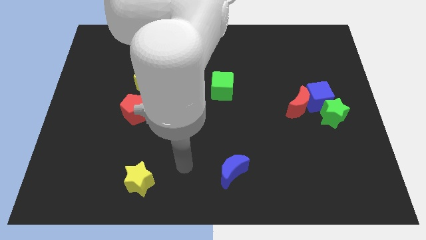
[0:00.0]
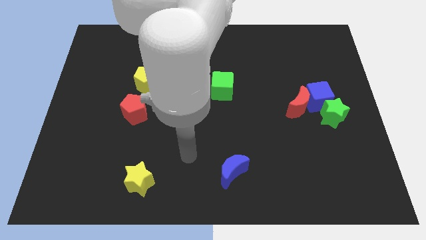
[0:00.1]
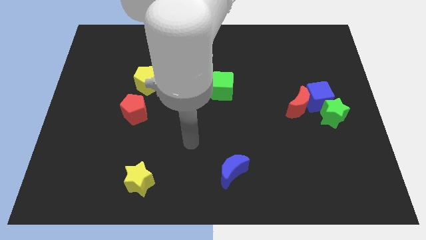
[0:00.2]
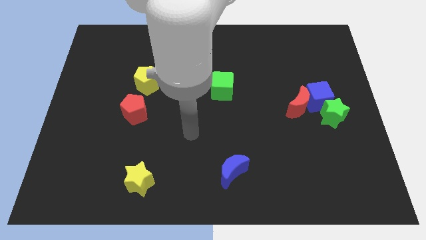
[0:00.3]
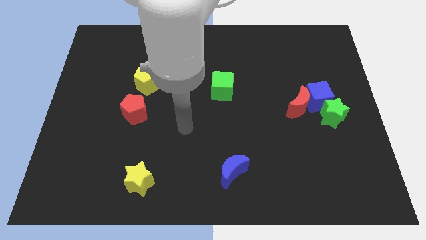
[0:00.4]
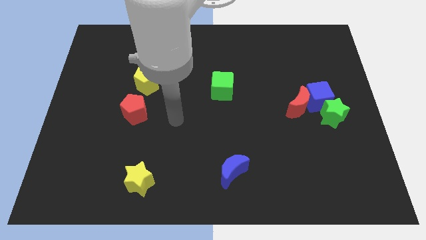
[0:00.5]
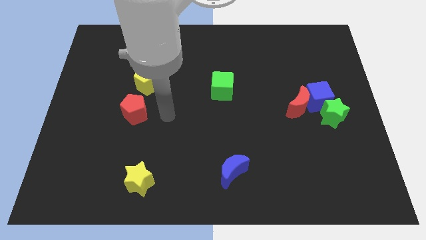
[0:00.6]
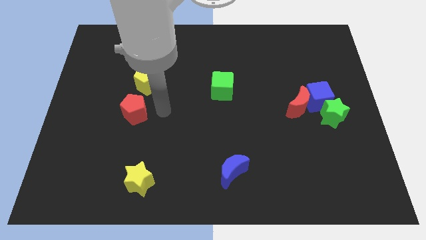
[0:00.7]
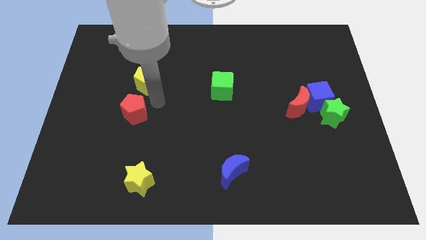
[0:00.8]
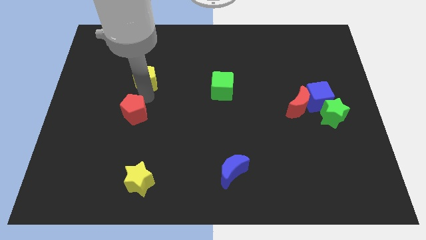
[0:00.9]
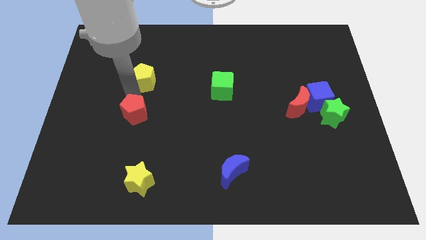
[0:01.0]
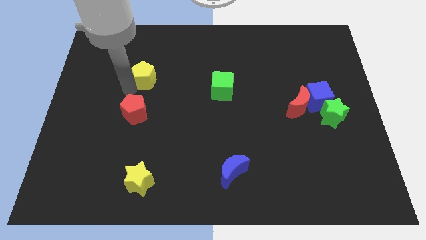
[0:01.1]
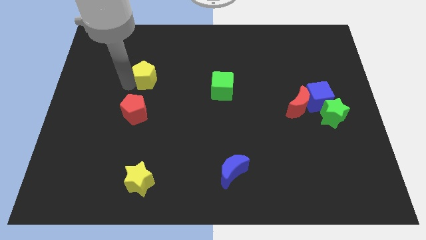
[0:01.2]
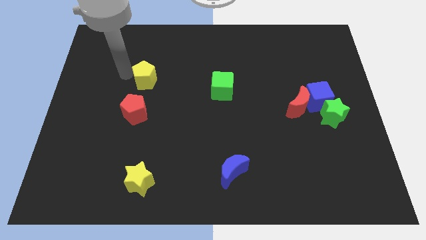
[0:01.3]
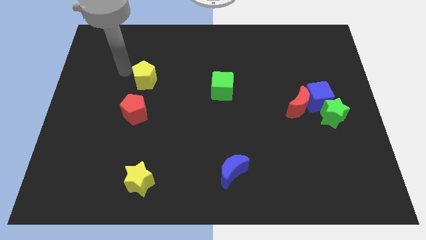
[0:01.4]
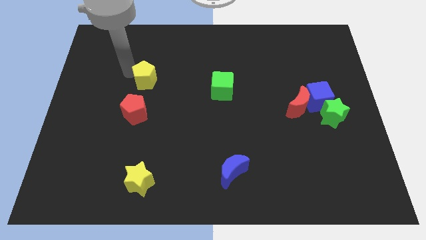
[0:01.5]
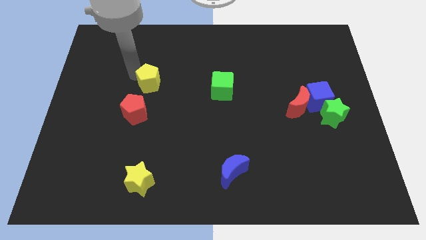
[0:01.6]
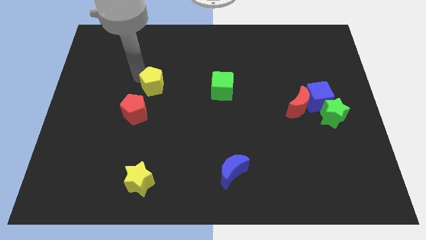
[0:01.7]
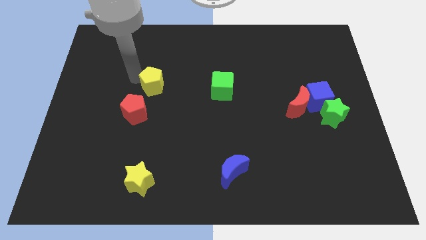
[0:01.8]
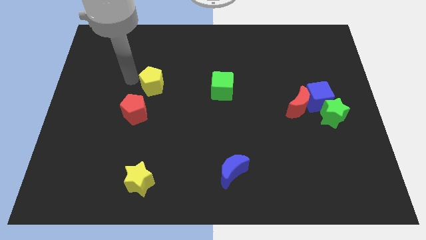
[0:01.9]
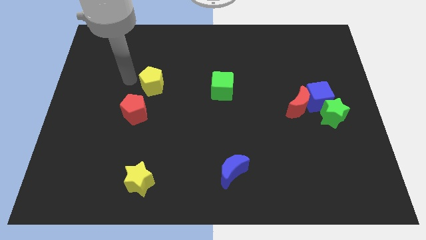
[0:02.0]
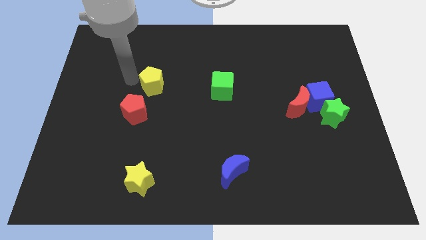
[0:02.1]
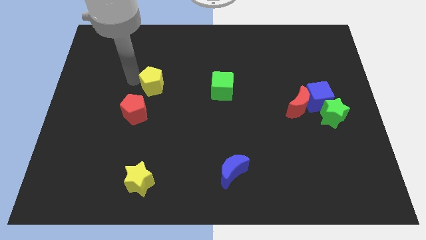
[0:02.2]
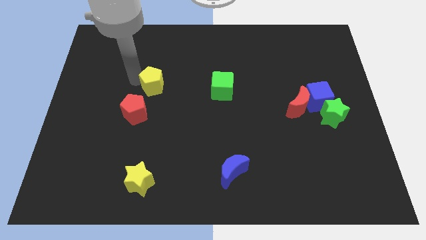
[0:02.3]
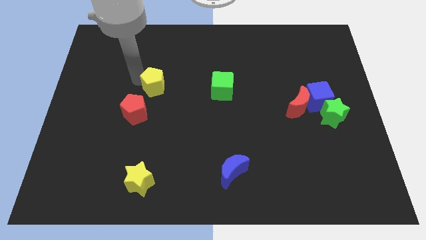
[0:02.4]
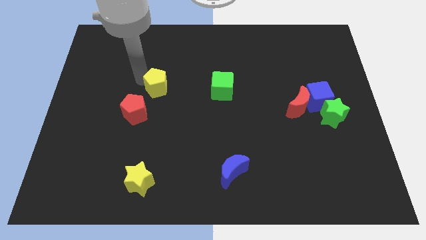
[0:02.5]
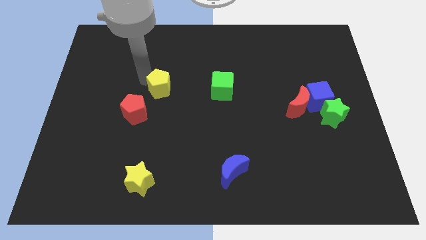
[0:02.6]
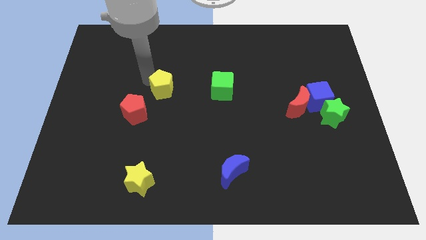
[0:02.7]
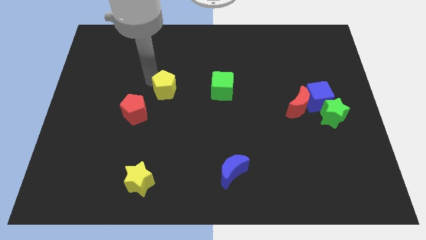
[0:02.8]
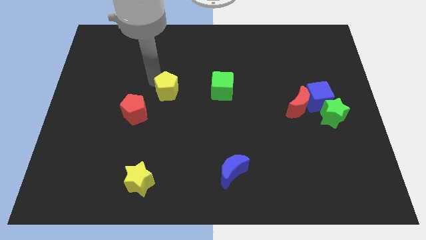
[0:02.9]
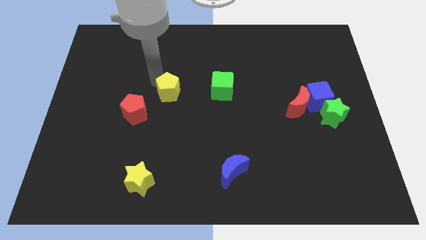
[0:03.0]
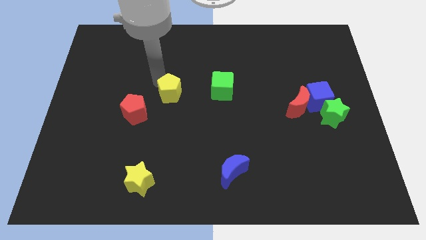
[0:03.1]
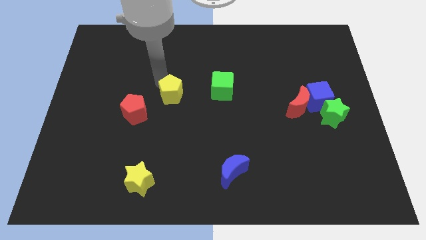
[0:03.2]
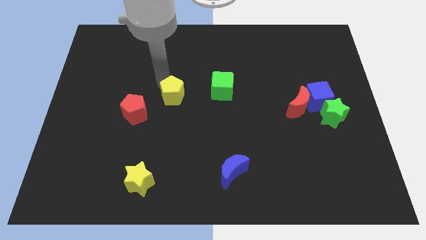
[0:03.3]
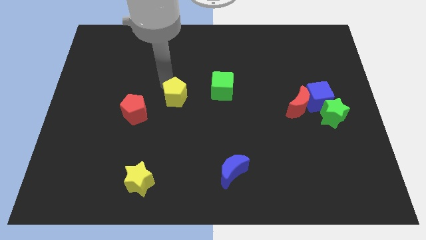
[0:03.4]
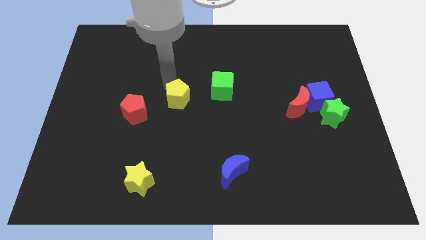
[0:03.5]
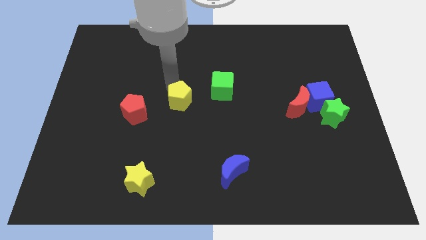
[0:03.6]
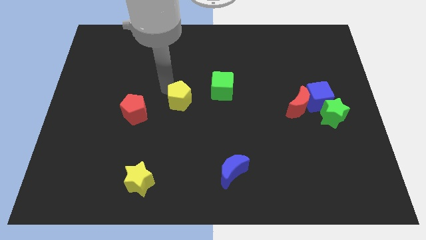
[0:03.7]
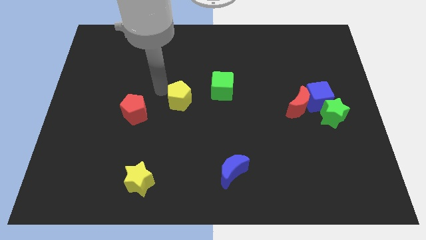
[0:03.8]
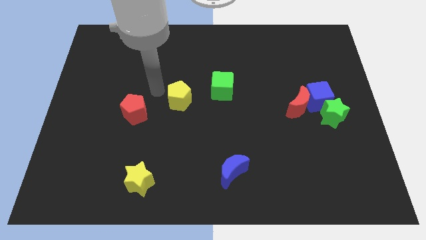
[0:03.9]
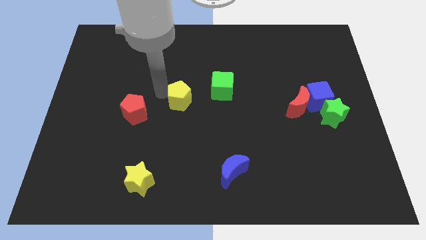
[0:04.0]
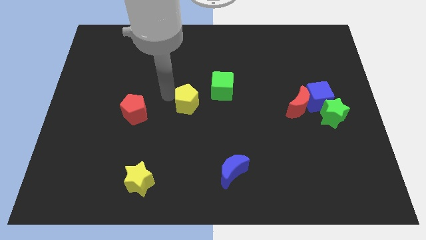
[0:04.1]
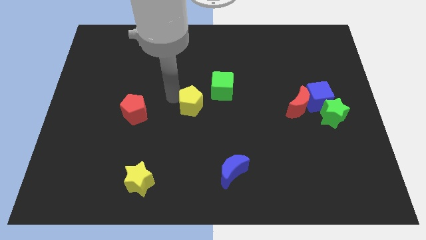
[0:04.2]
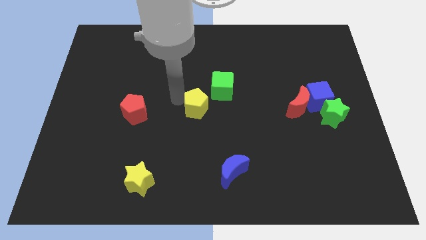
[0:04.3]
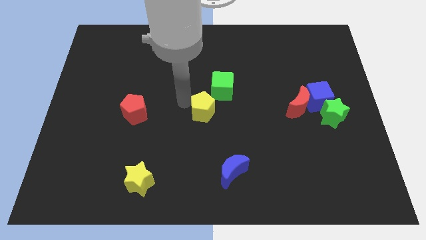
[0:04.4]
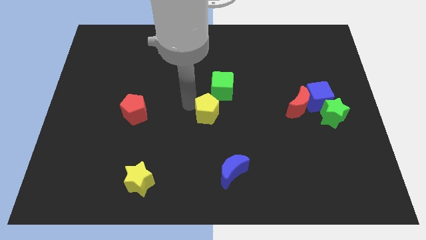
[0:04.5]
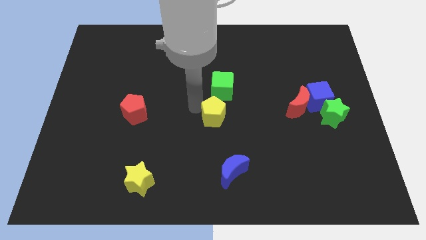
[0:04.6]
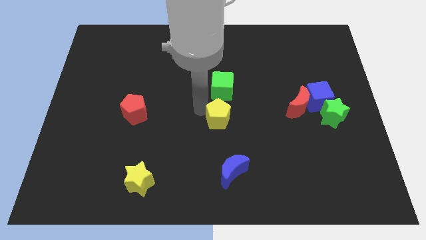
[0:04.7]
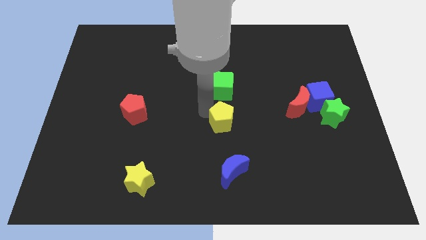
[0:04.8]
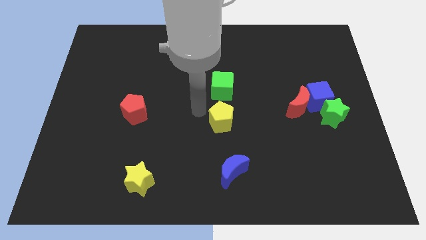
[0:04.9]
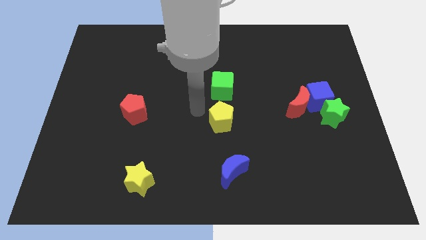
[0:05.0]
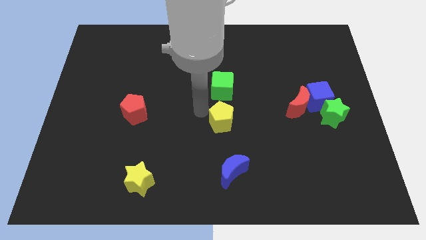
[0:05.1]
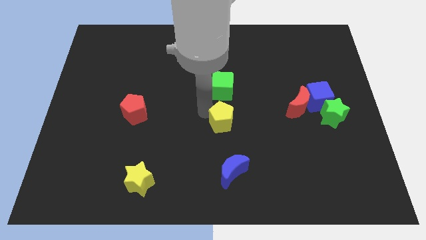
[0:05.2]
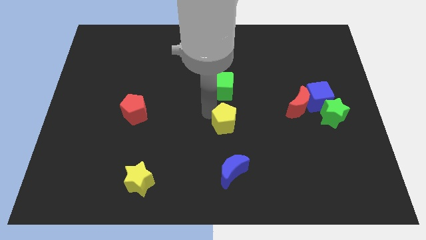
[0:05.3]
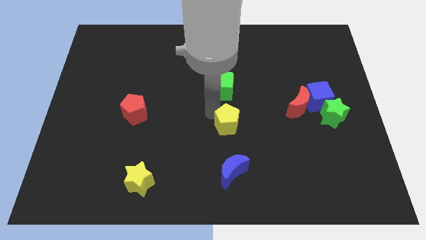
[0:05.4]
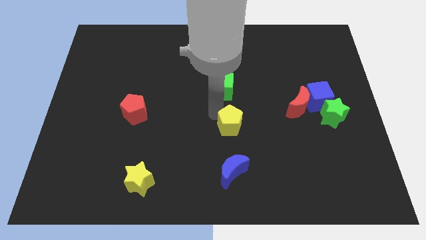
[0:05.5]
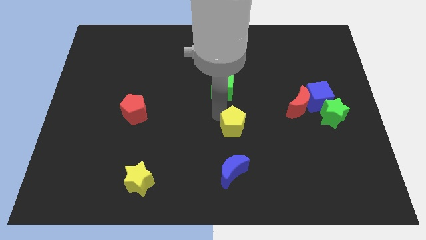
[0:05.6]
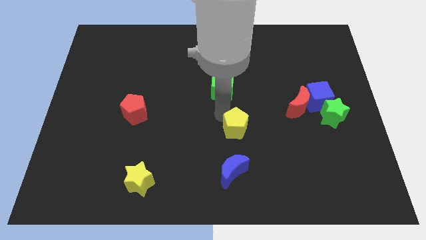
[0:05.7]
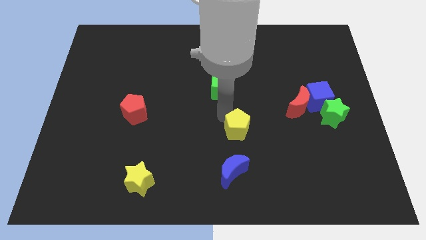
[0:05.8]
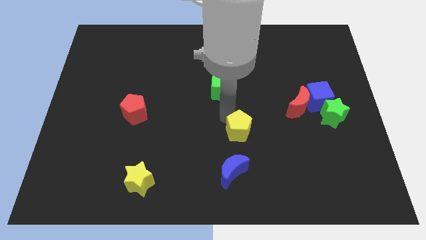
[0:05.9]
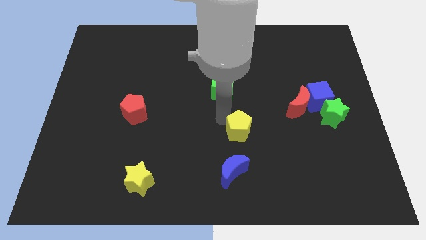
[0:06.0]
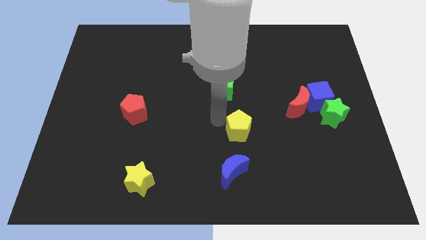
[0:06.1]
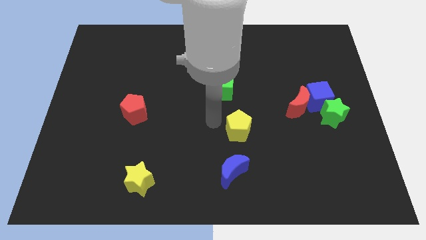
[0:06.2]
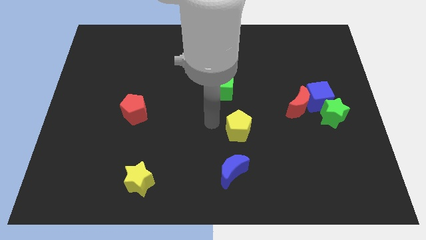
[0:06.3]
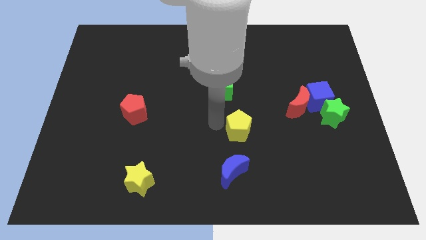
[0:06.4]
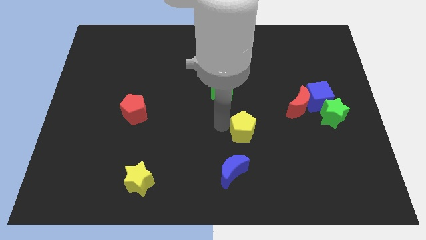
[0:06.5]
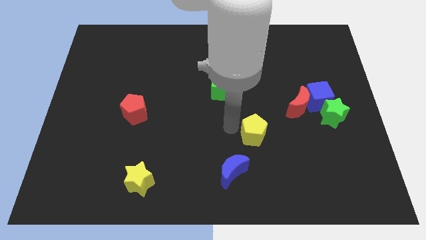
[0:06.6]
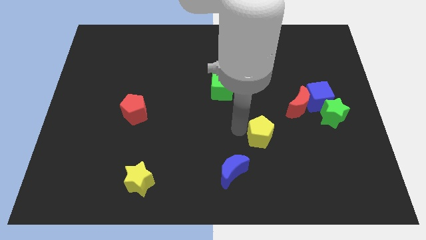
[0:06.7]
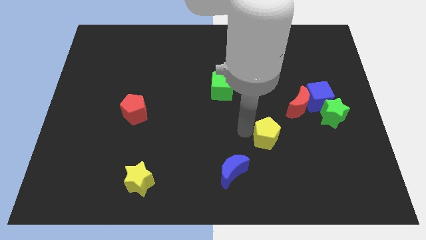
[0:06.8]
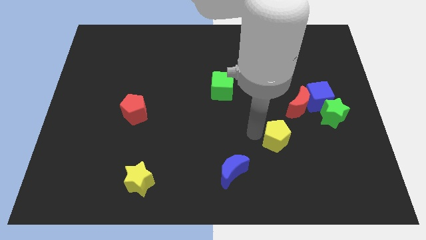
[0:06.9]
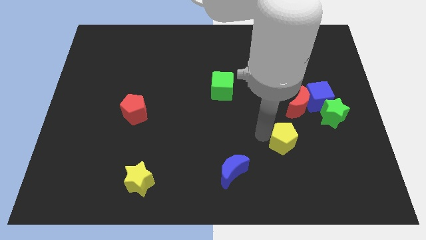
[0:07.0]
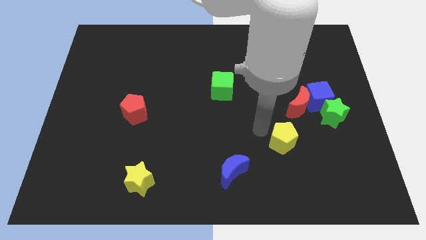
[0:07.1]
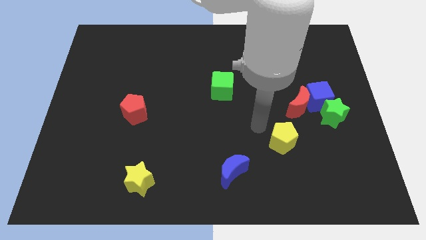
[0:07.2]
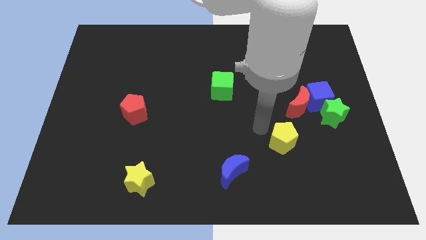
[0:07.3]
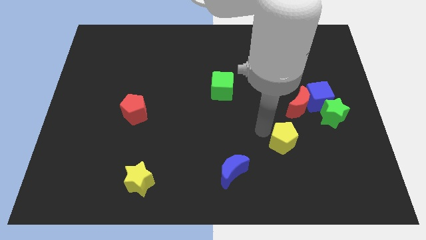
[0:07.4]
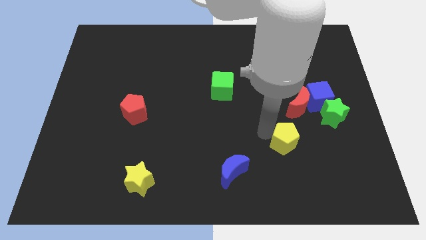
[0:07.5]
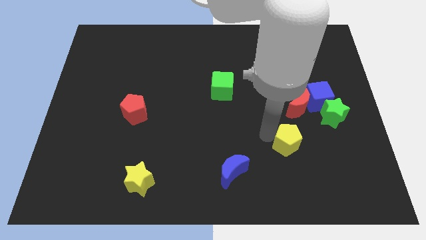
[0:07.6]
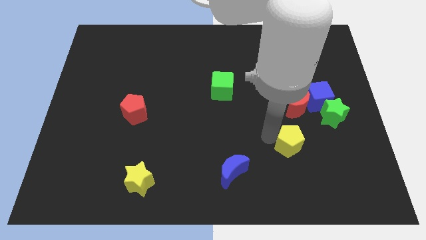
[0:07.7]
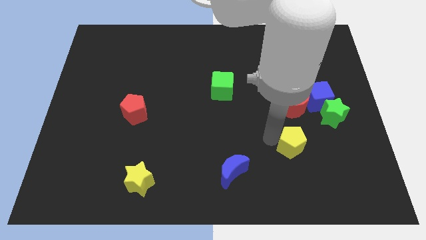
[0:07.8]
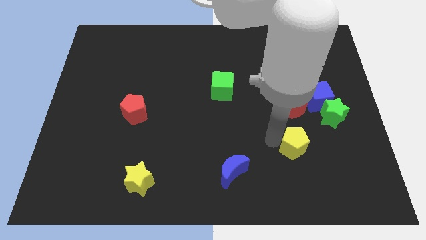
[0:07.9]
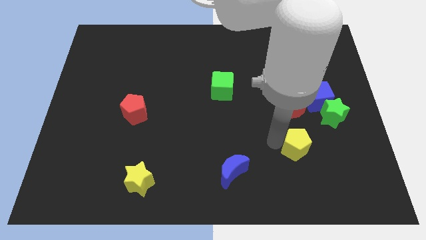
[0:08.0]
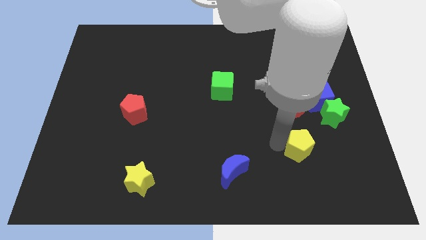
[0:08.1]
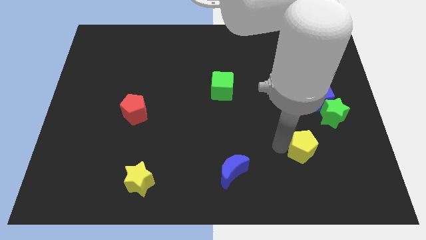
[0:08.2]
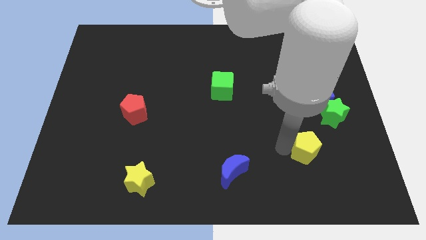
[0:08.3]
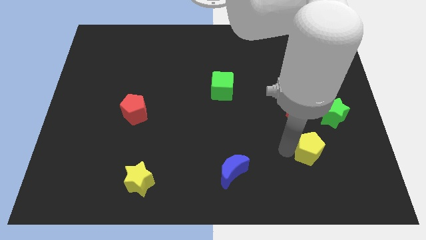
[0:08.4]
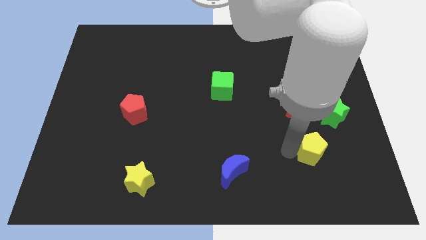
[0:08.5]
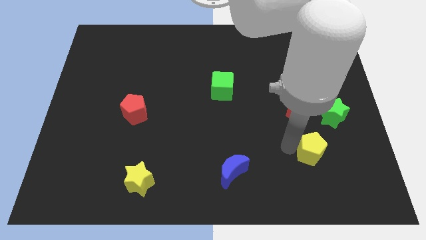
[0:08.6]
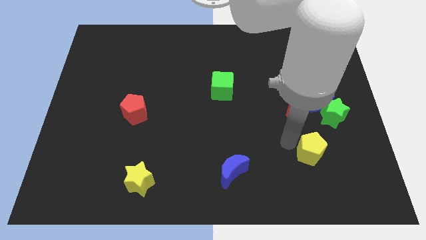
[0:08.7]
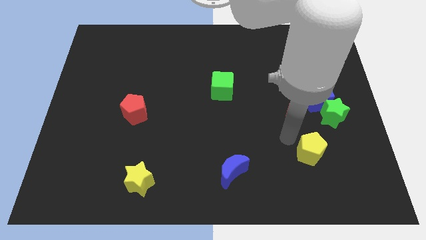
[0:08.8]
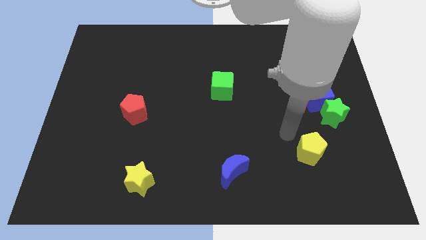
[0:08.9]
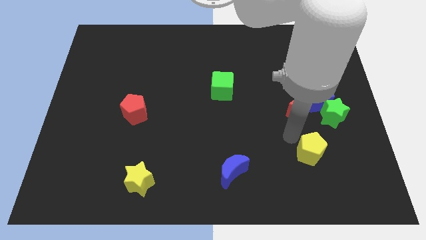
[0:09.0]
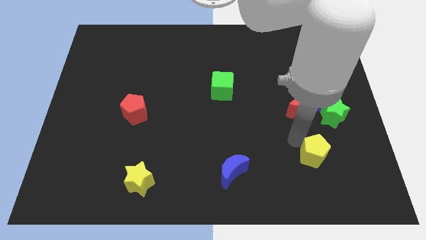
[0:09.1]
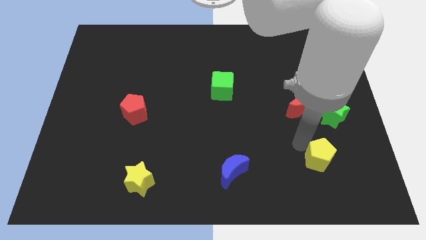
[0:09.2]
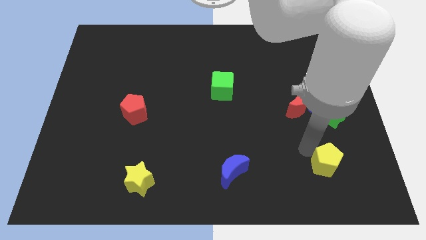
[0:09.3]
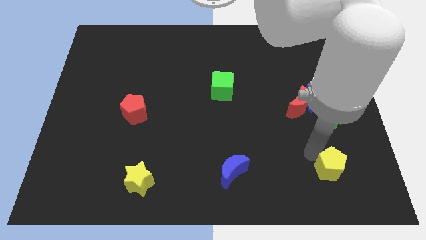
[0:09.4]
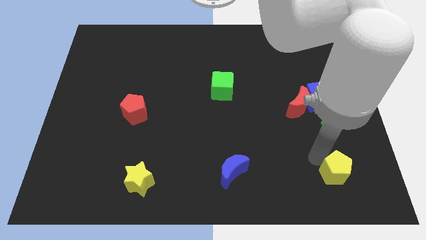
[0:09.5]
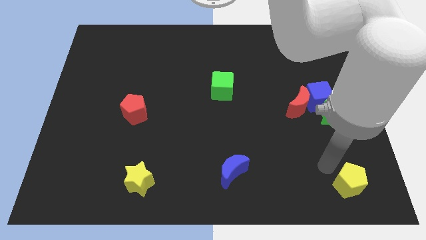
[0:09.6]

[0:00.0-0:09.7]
put the yellow pentagon to the bottom right corner
